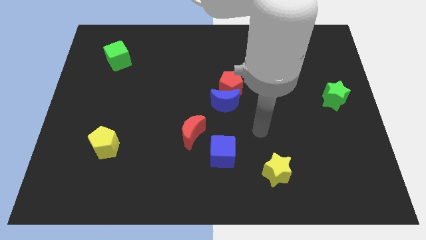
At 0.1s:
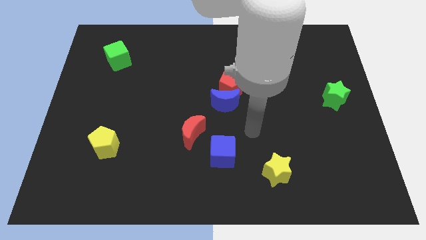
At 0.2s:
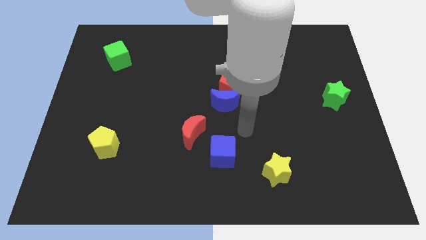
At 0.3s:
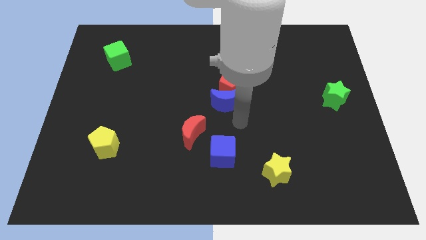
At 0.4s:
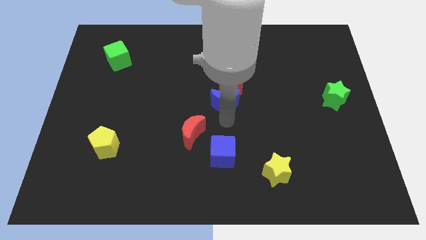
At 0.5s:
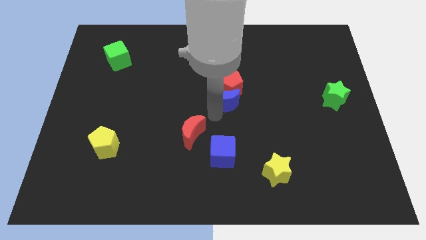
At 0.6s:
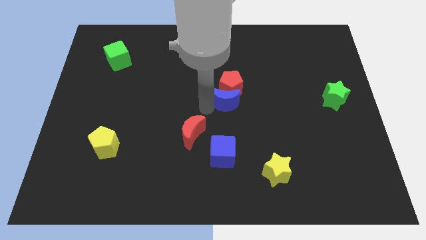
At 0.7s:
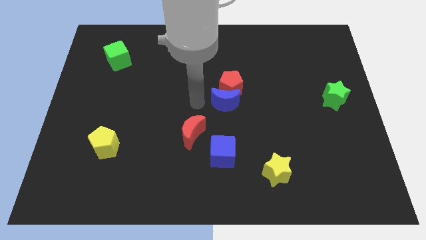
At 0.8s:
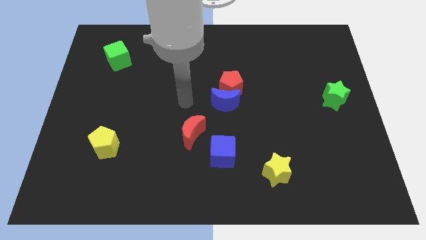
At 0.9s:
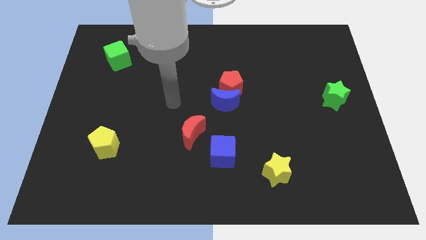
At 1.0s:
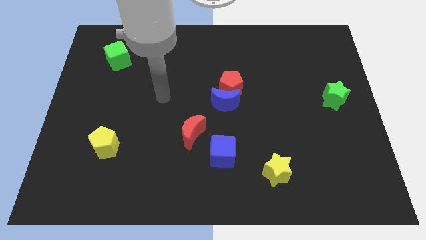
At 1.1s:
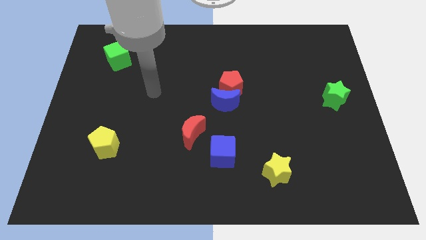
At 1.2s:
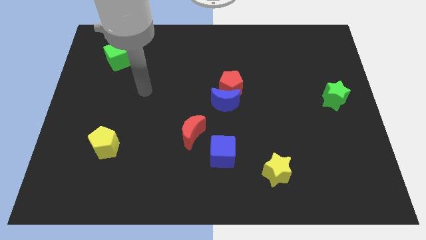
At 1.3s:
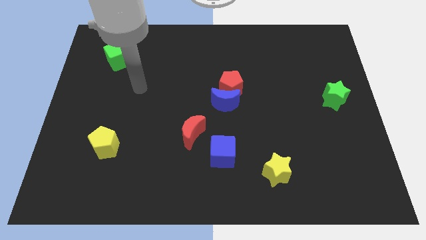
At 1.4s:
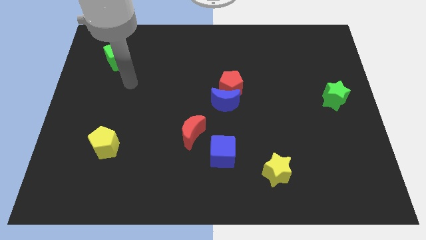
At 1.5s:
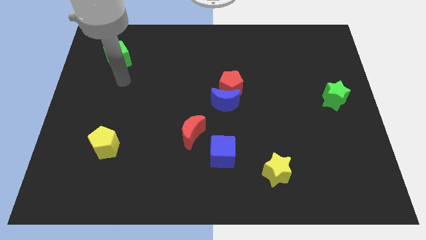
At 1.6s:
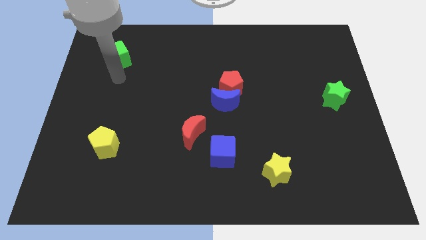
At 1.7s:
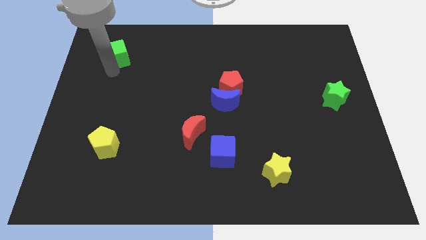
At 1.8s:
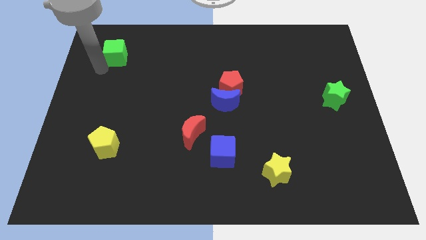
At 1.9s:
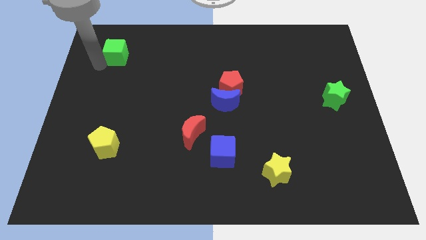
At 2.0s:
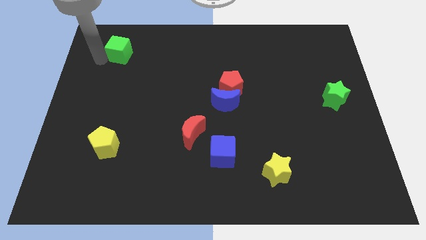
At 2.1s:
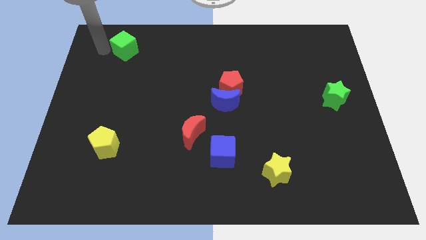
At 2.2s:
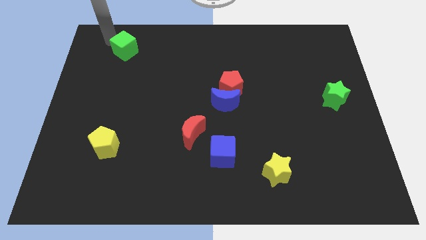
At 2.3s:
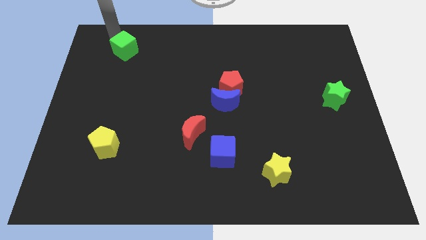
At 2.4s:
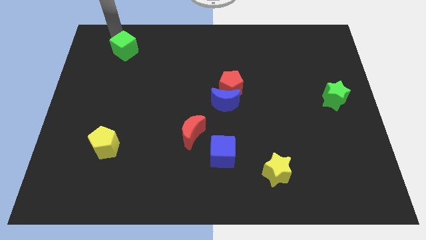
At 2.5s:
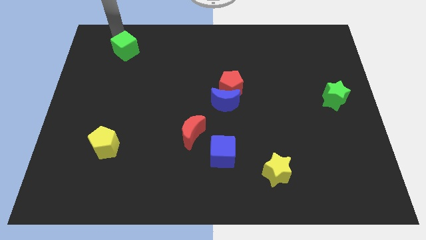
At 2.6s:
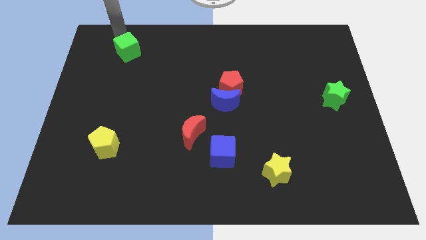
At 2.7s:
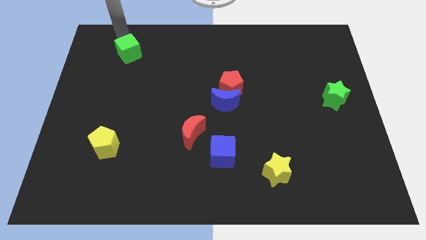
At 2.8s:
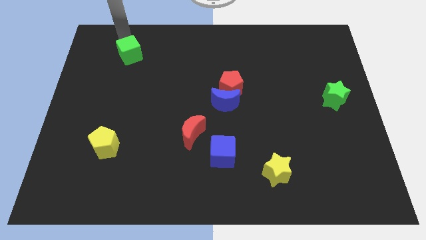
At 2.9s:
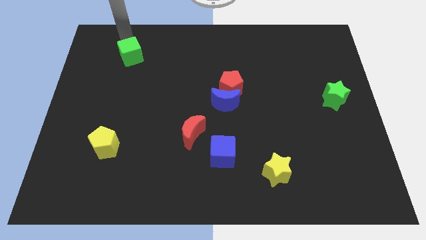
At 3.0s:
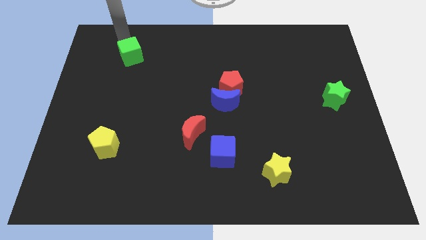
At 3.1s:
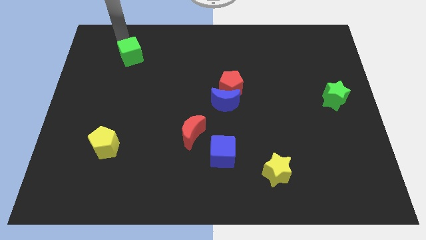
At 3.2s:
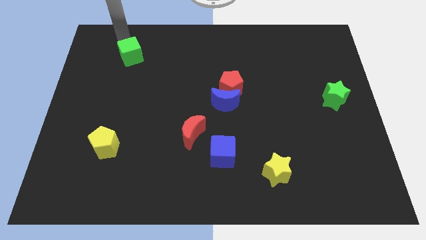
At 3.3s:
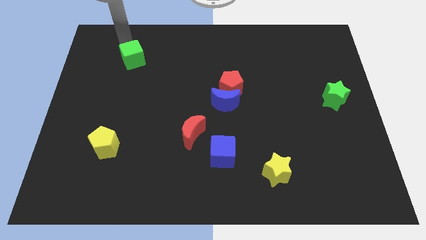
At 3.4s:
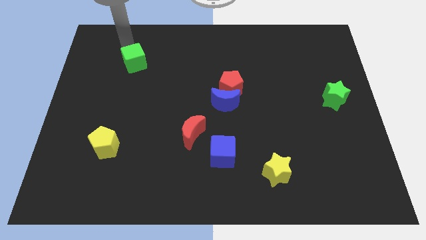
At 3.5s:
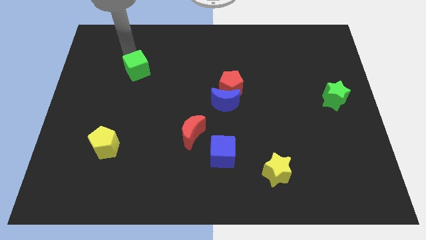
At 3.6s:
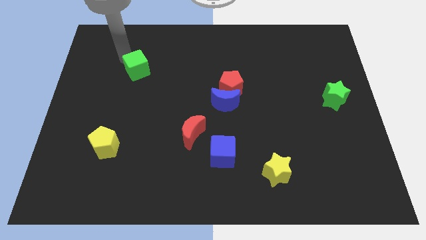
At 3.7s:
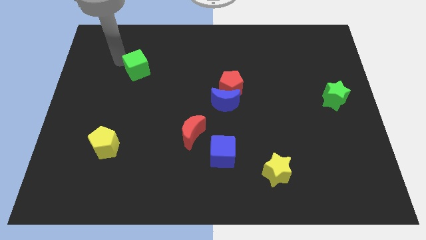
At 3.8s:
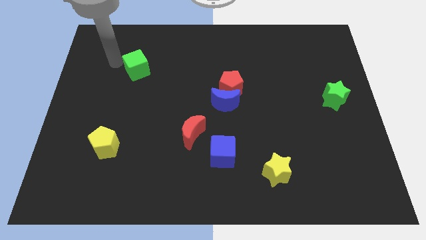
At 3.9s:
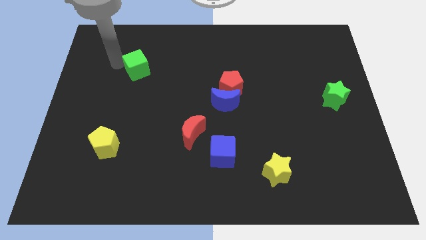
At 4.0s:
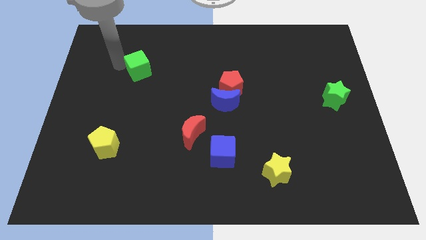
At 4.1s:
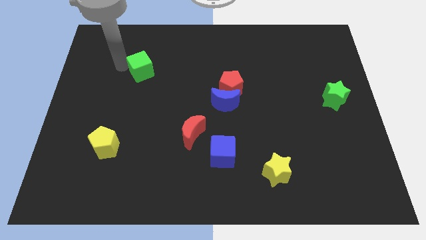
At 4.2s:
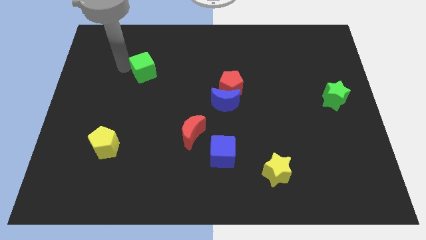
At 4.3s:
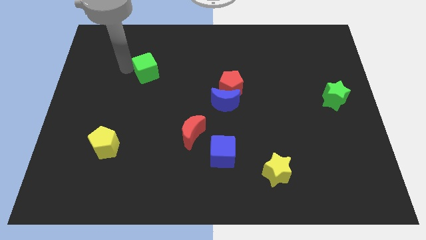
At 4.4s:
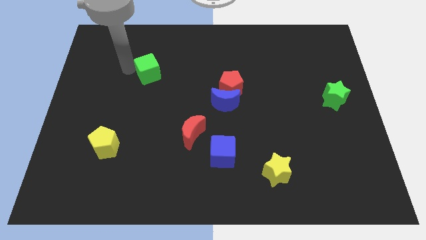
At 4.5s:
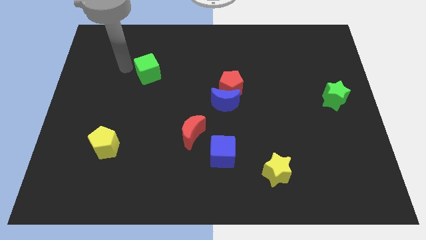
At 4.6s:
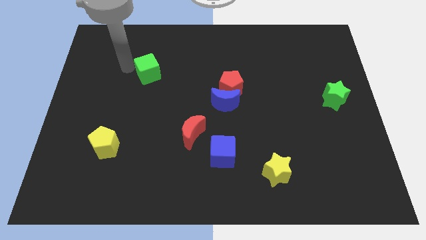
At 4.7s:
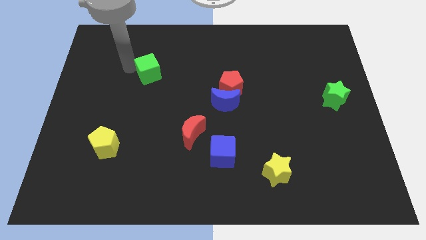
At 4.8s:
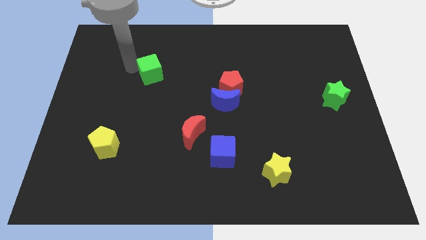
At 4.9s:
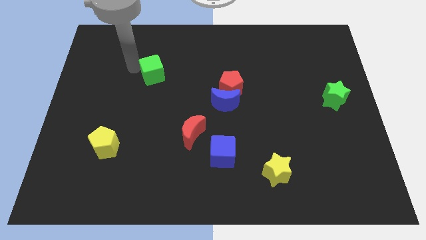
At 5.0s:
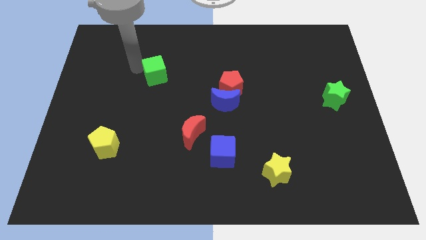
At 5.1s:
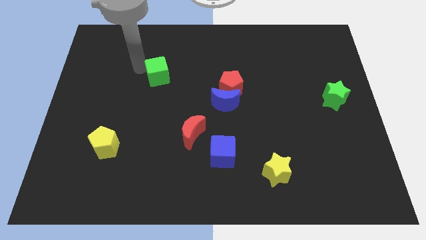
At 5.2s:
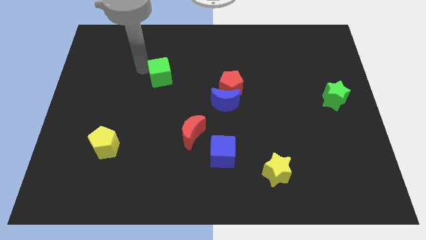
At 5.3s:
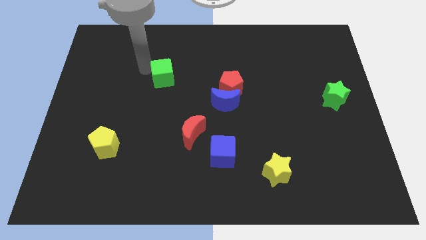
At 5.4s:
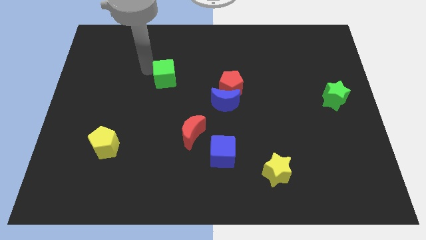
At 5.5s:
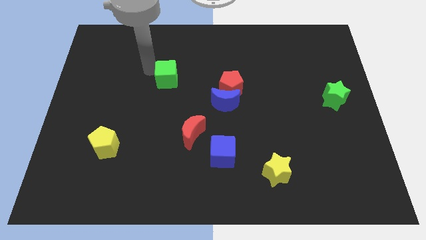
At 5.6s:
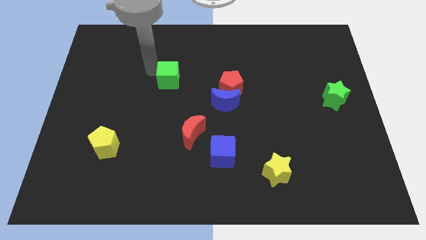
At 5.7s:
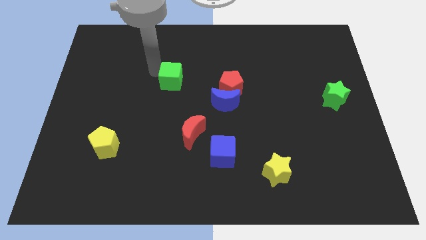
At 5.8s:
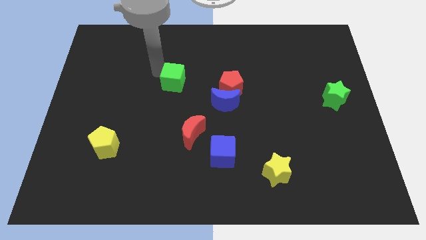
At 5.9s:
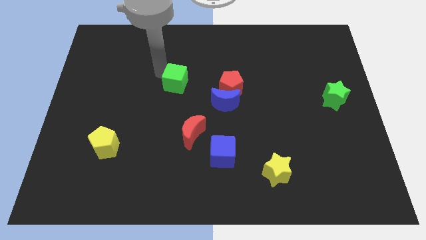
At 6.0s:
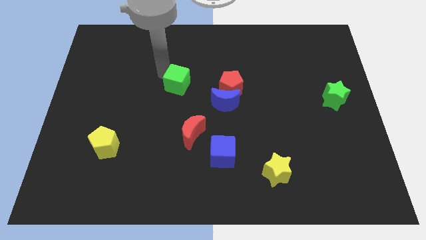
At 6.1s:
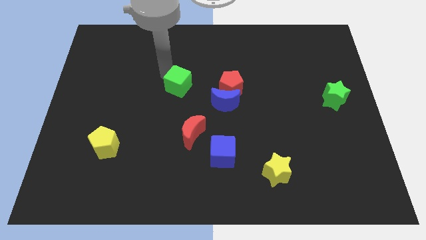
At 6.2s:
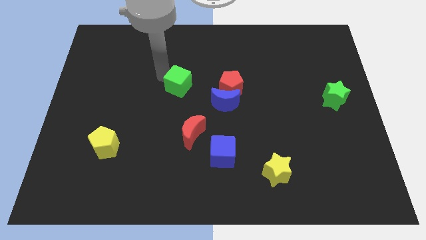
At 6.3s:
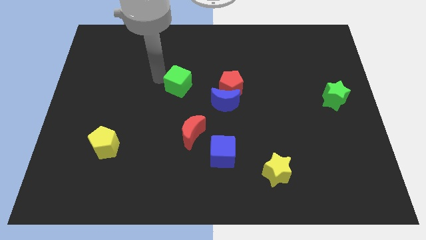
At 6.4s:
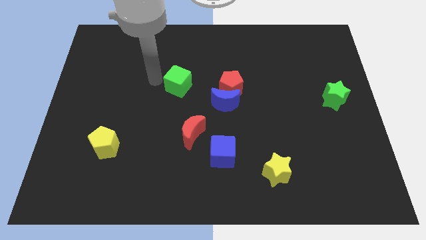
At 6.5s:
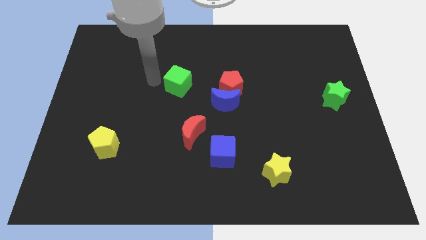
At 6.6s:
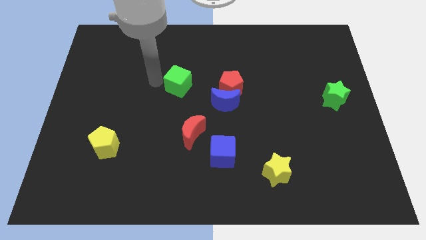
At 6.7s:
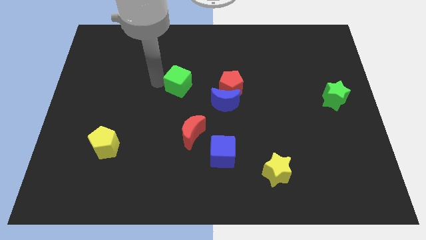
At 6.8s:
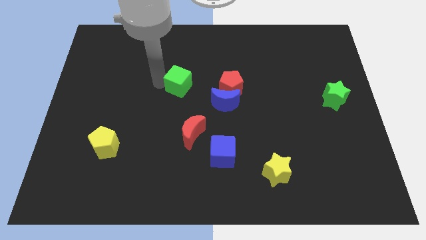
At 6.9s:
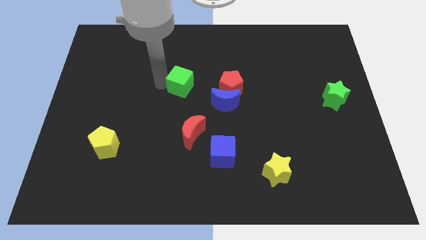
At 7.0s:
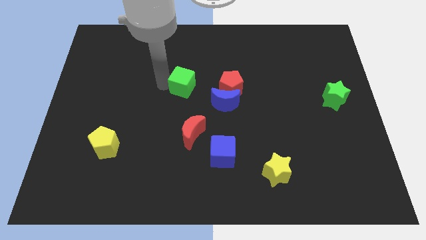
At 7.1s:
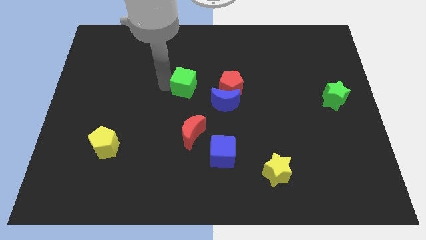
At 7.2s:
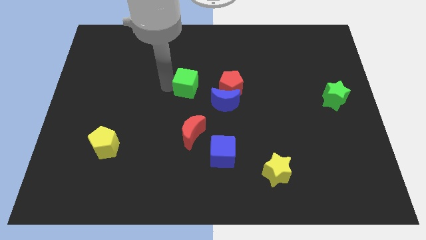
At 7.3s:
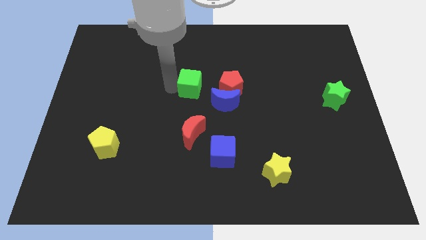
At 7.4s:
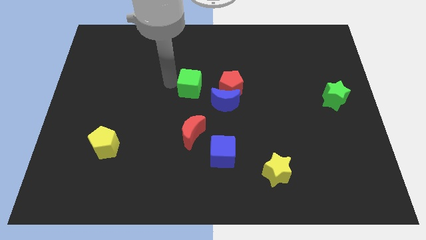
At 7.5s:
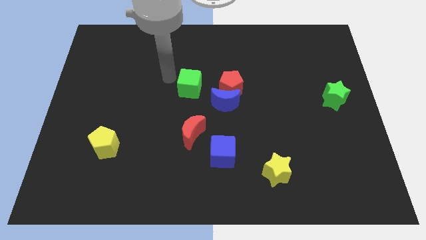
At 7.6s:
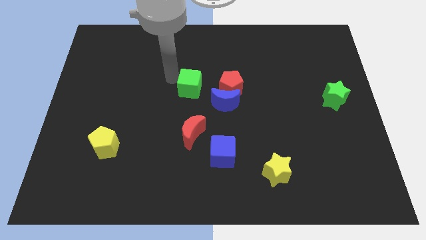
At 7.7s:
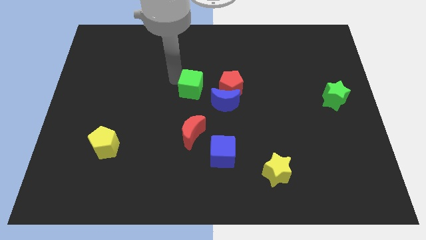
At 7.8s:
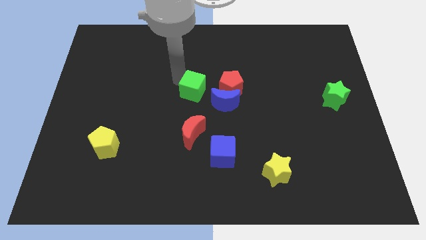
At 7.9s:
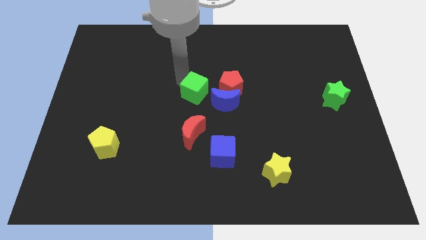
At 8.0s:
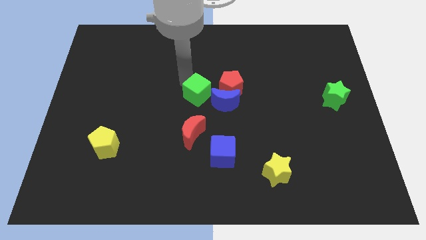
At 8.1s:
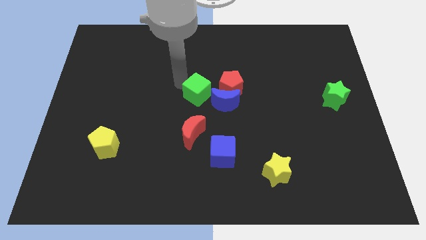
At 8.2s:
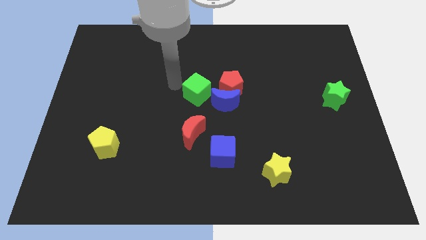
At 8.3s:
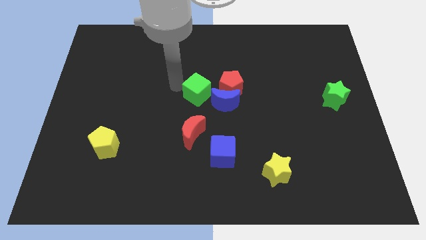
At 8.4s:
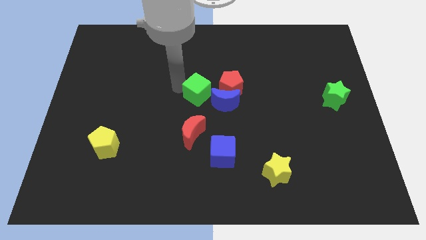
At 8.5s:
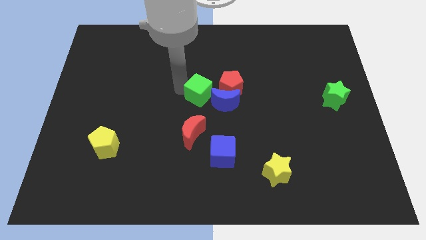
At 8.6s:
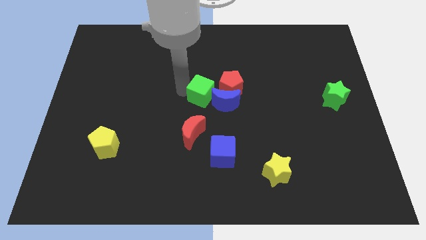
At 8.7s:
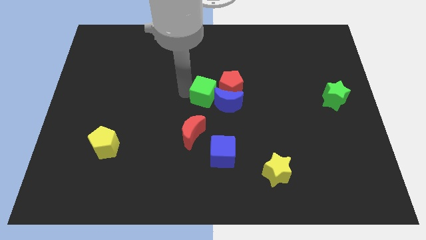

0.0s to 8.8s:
push the green cube next to the blue moon
